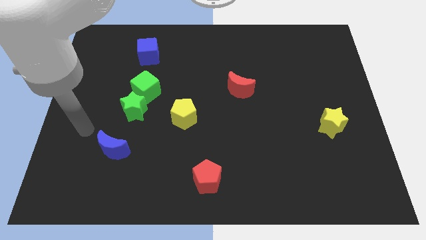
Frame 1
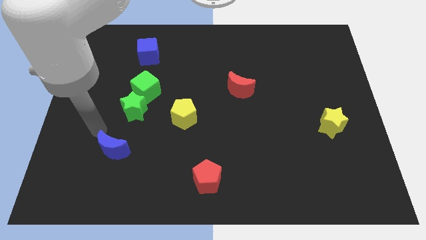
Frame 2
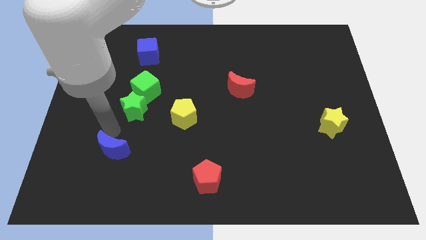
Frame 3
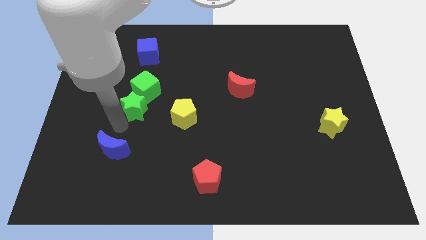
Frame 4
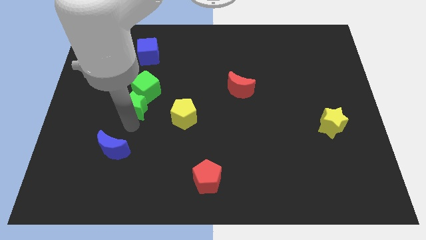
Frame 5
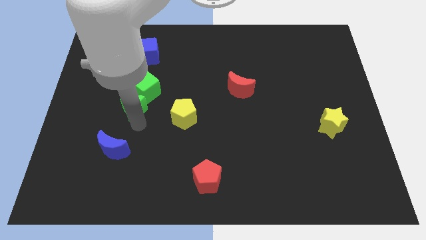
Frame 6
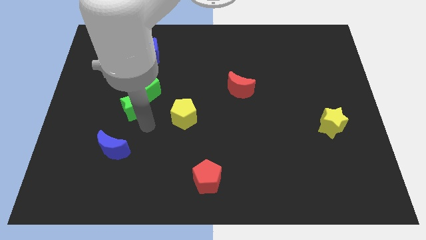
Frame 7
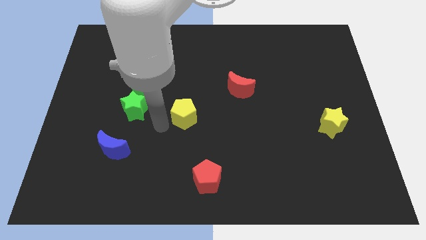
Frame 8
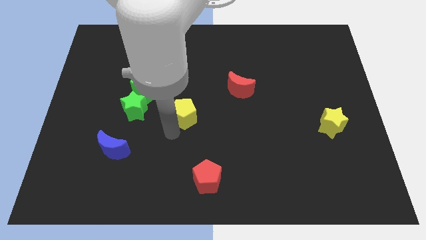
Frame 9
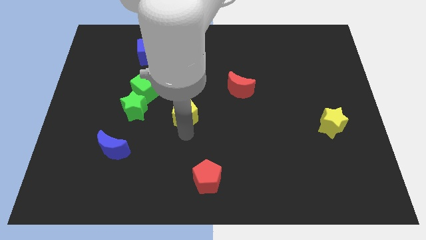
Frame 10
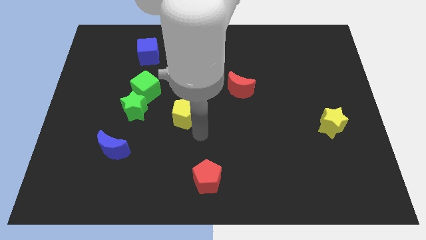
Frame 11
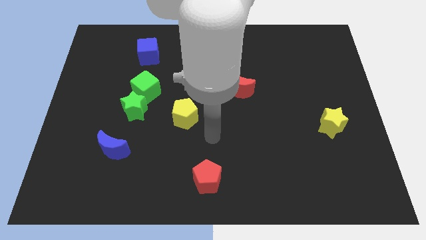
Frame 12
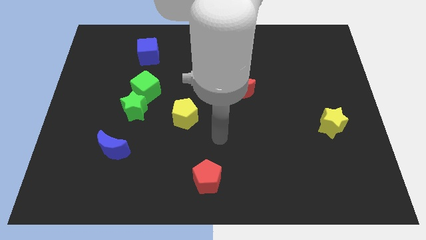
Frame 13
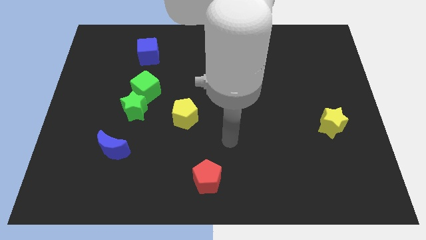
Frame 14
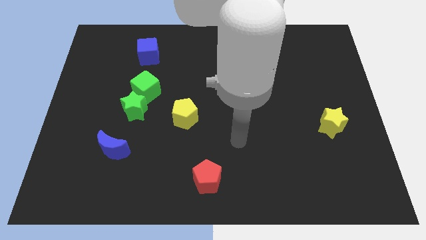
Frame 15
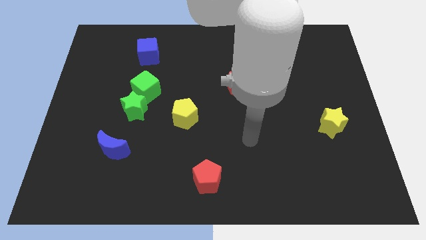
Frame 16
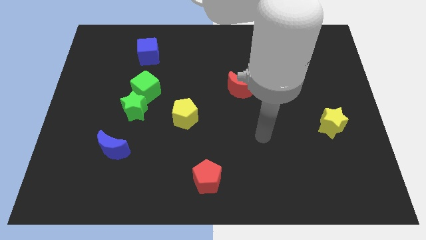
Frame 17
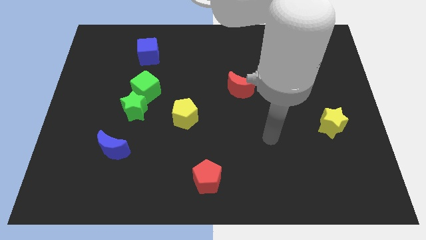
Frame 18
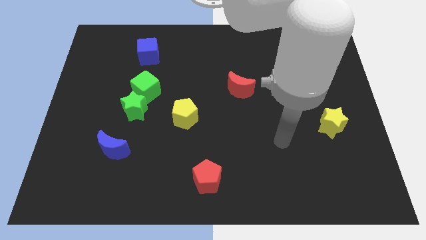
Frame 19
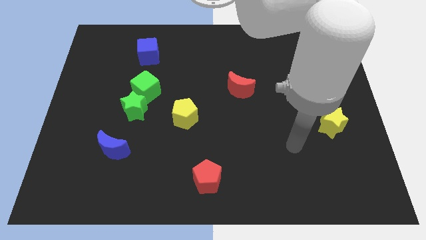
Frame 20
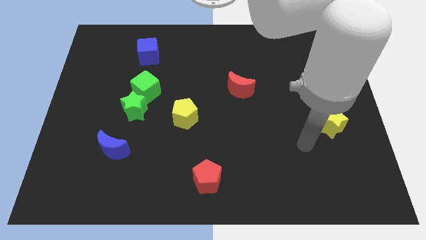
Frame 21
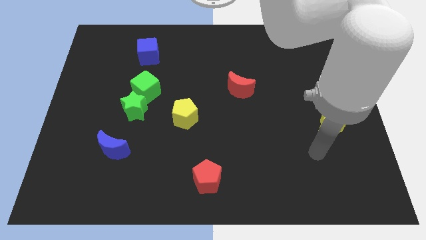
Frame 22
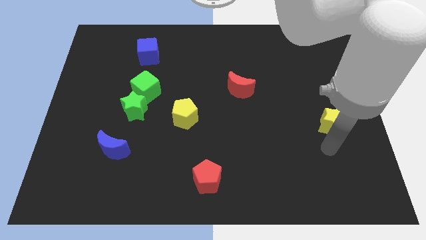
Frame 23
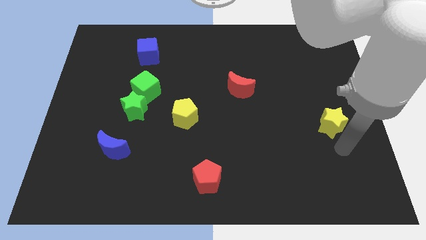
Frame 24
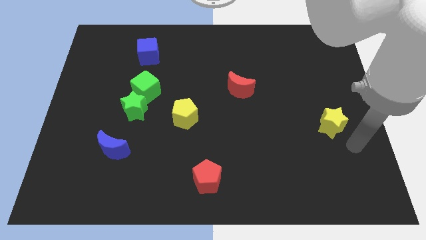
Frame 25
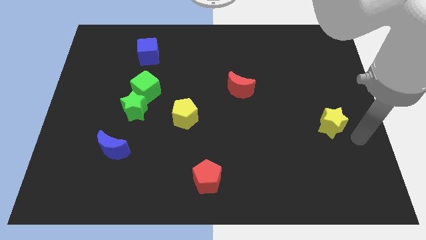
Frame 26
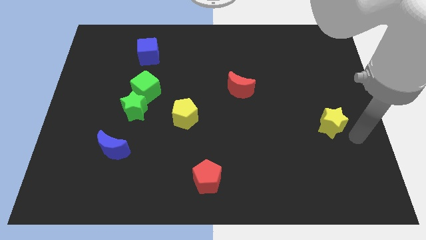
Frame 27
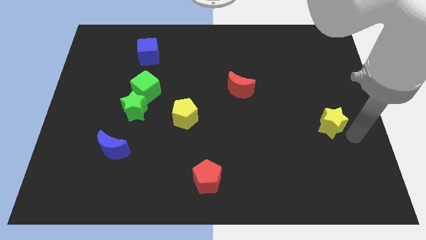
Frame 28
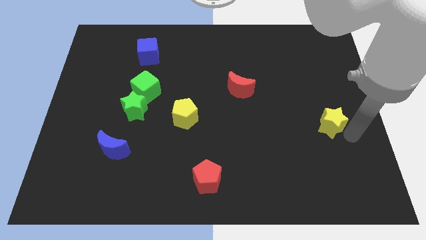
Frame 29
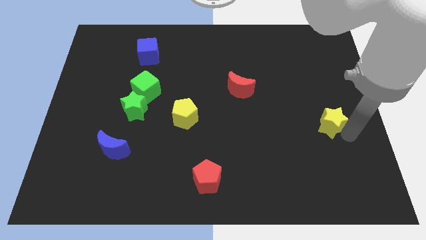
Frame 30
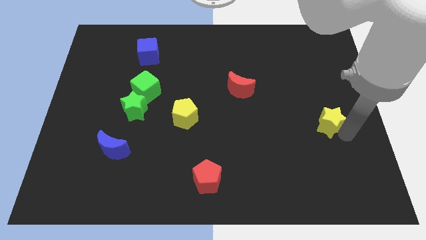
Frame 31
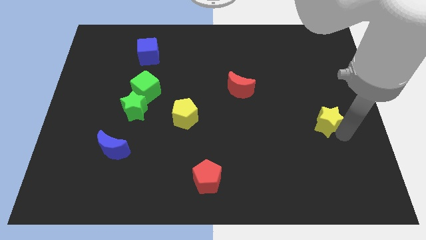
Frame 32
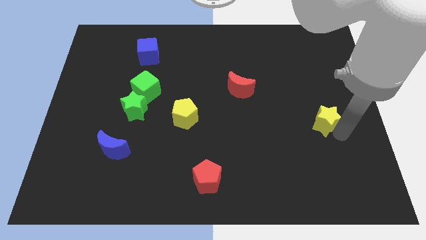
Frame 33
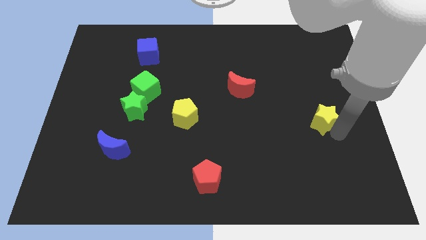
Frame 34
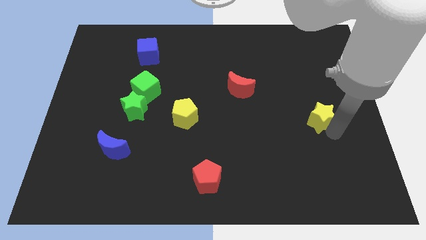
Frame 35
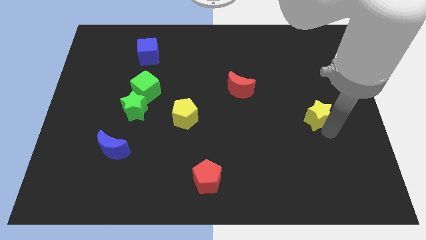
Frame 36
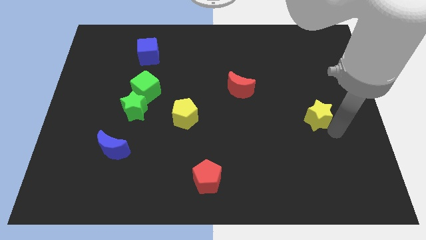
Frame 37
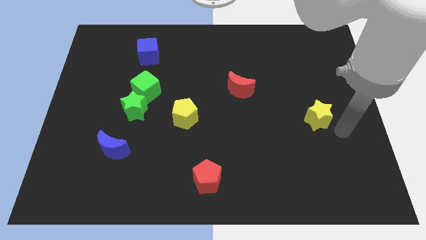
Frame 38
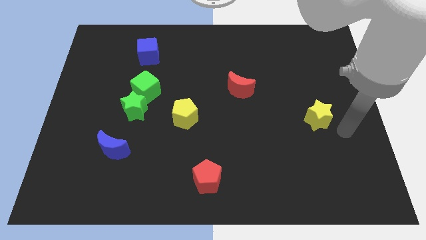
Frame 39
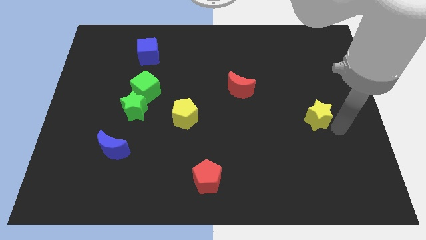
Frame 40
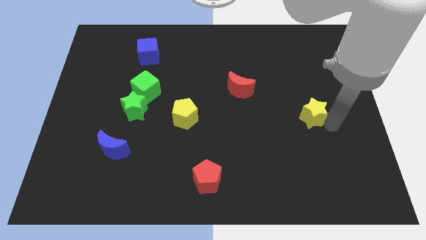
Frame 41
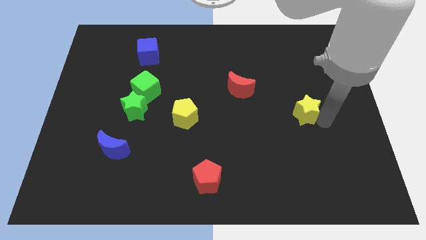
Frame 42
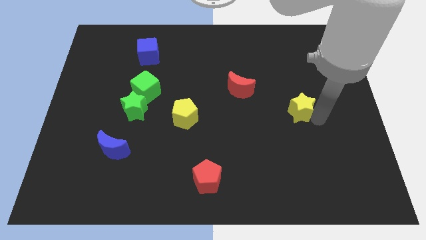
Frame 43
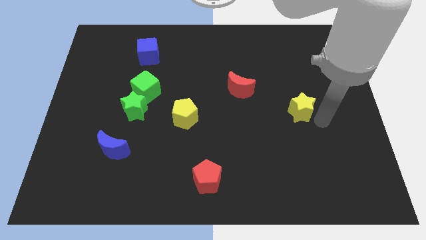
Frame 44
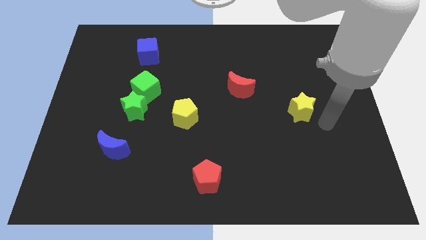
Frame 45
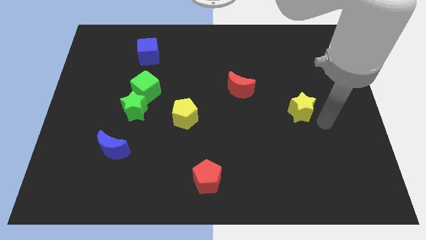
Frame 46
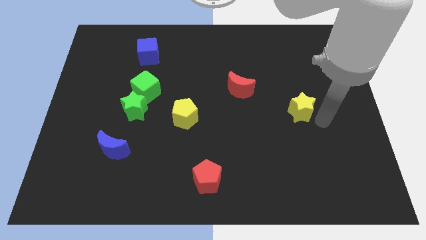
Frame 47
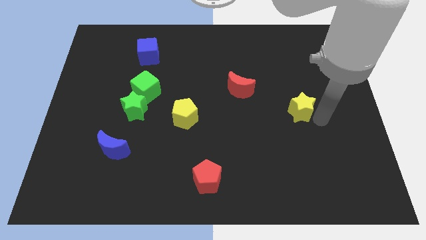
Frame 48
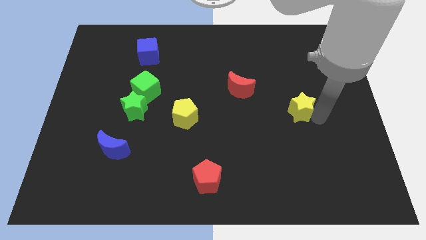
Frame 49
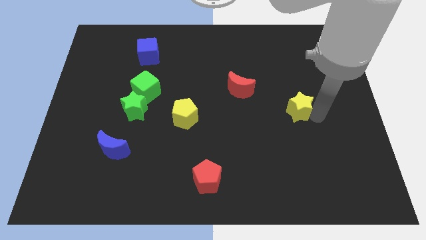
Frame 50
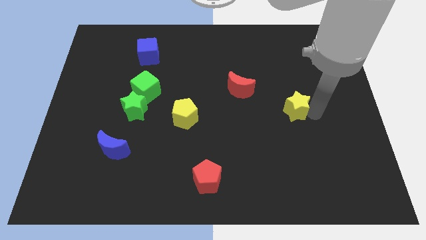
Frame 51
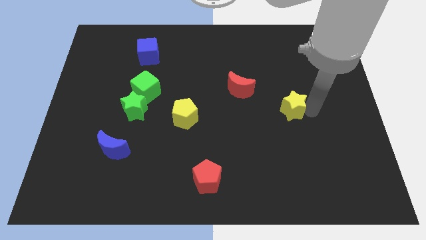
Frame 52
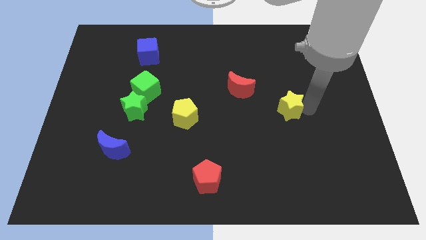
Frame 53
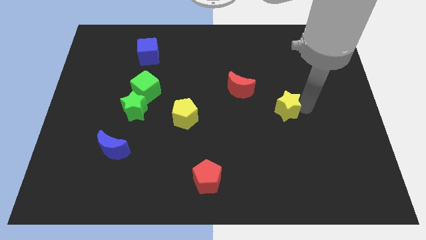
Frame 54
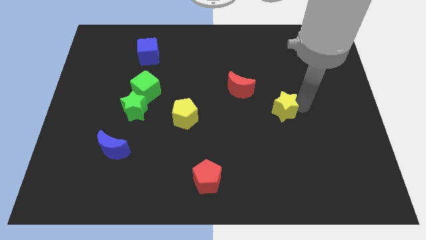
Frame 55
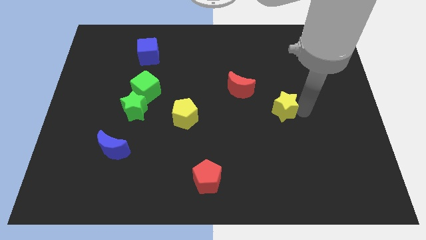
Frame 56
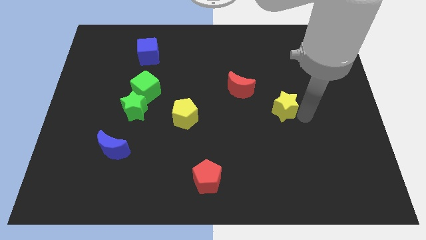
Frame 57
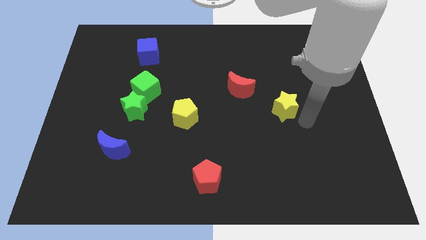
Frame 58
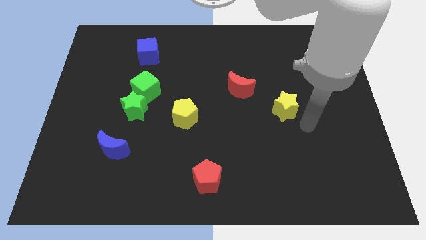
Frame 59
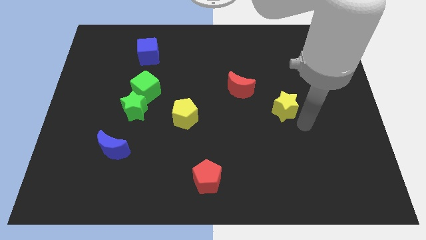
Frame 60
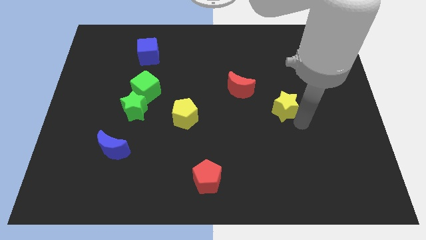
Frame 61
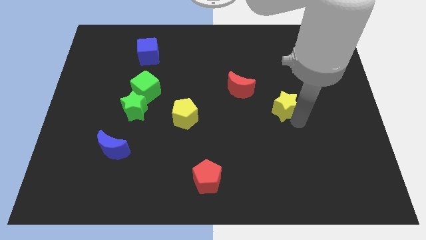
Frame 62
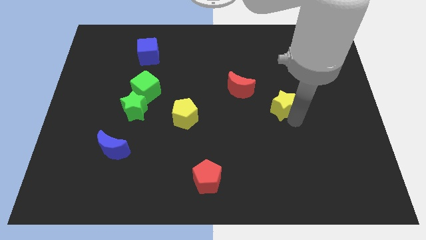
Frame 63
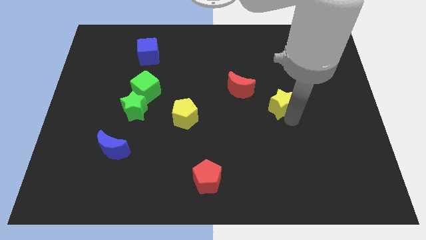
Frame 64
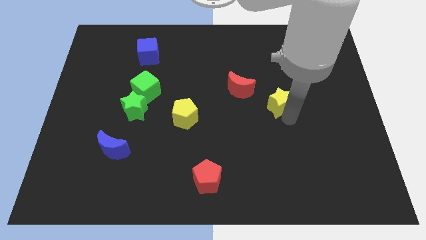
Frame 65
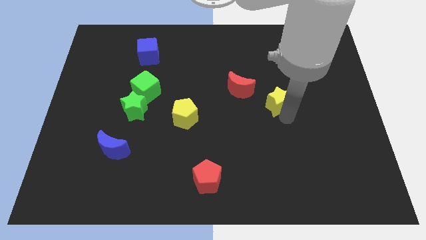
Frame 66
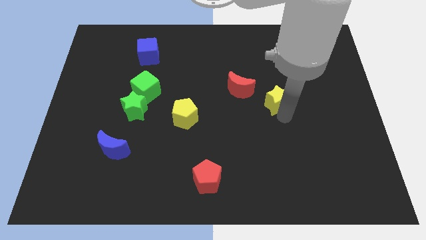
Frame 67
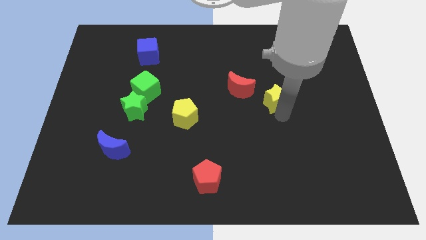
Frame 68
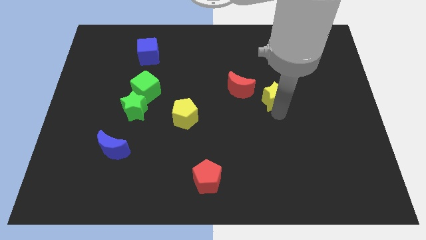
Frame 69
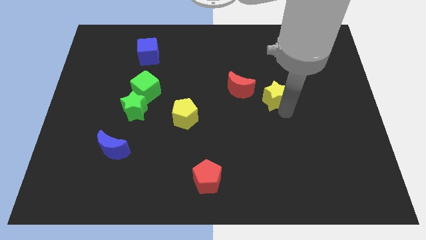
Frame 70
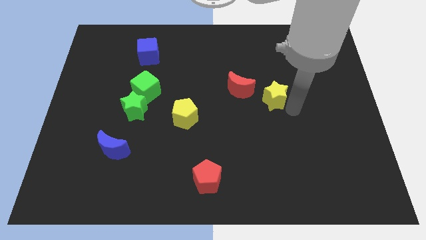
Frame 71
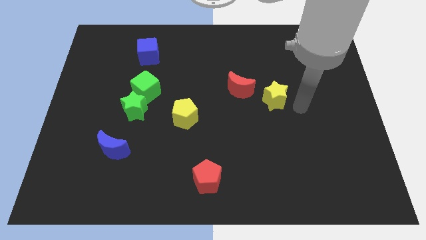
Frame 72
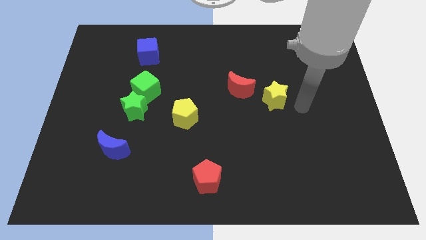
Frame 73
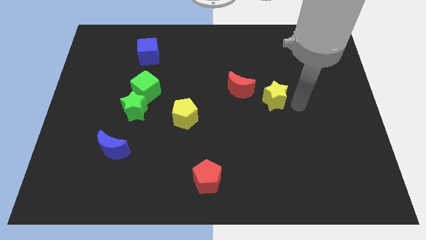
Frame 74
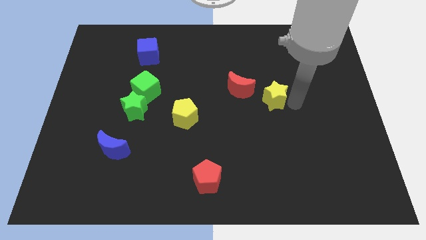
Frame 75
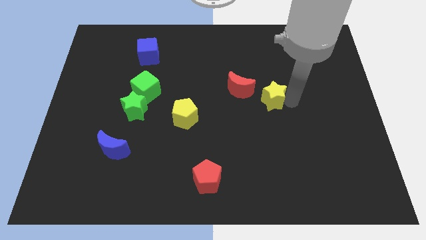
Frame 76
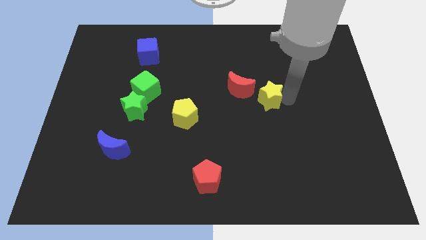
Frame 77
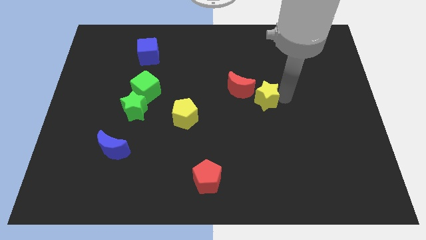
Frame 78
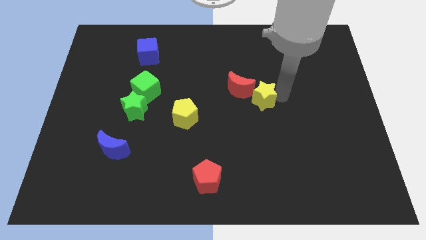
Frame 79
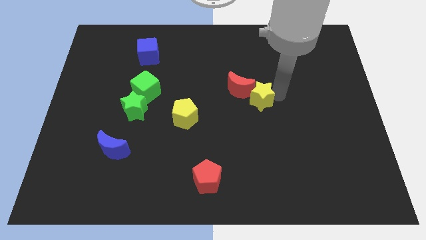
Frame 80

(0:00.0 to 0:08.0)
push the yellow star towards the red moon
